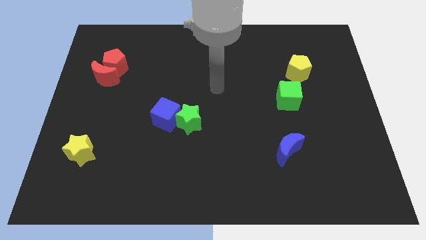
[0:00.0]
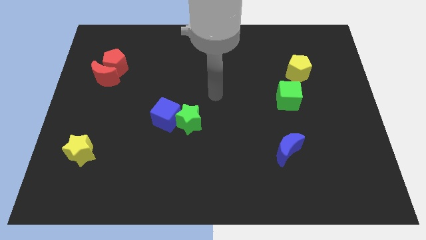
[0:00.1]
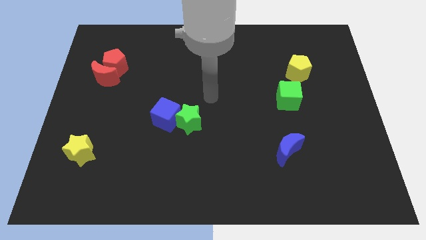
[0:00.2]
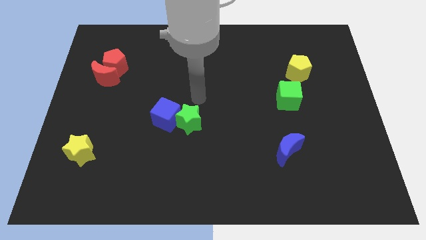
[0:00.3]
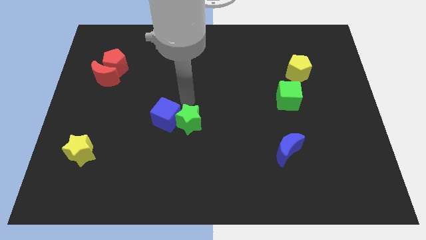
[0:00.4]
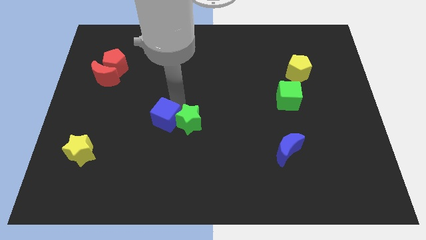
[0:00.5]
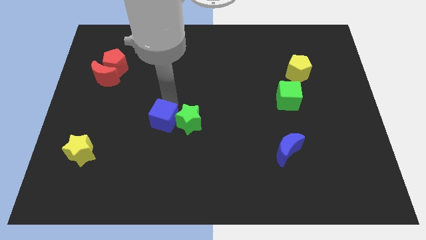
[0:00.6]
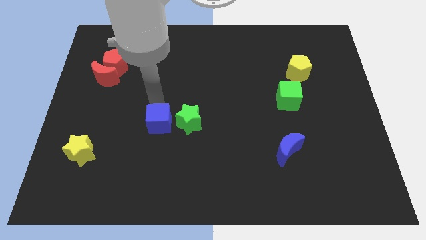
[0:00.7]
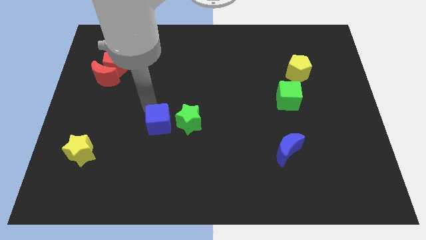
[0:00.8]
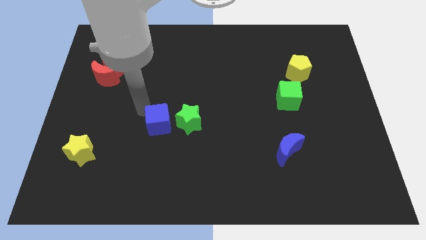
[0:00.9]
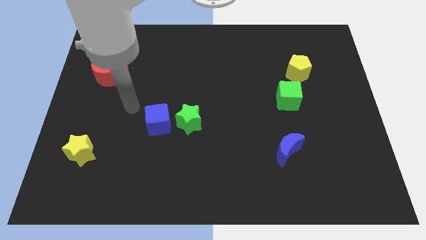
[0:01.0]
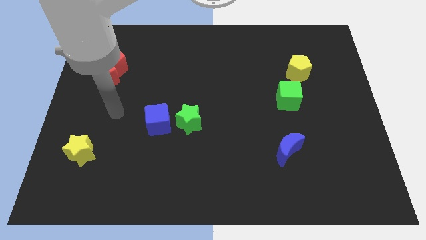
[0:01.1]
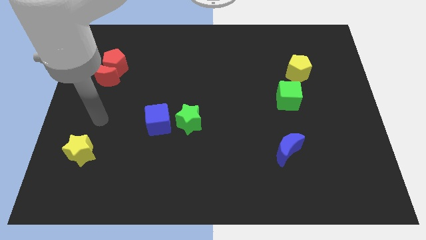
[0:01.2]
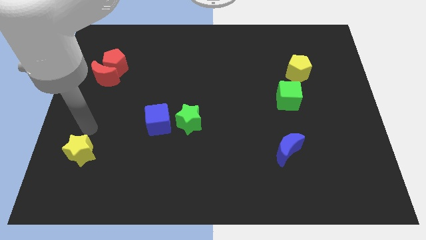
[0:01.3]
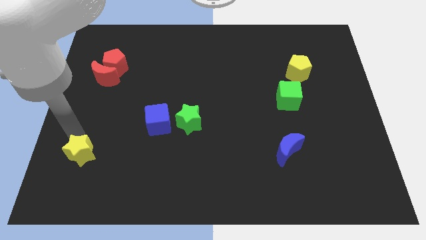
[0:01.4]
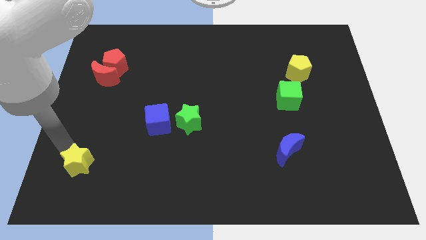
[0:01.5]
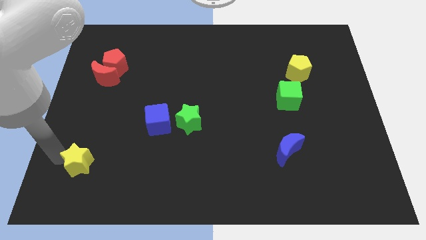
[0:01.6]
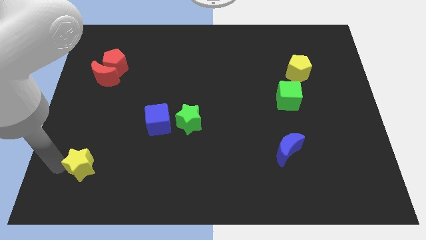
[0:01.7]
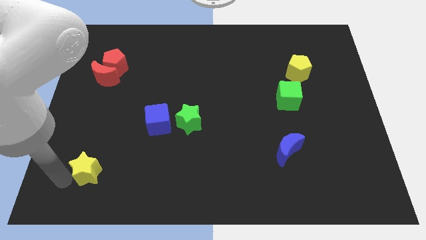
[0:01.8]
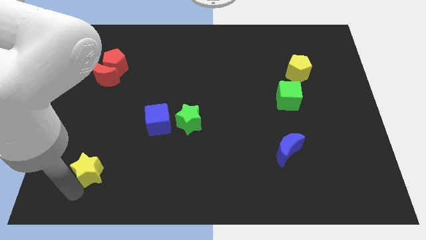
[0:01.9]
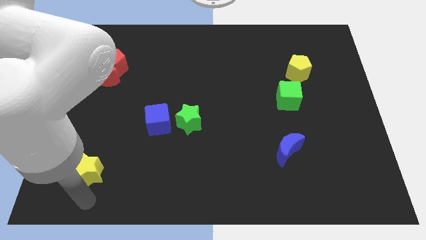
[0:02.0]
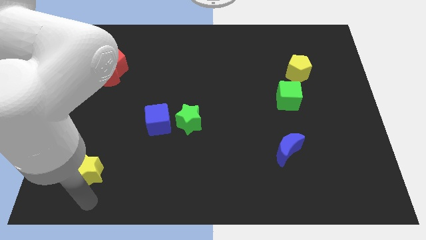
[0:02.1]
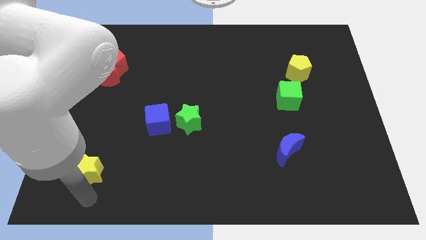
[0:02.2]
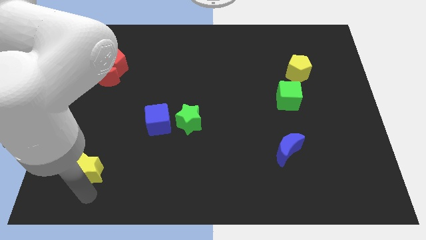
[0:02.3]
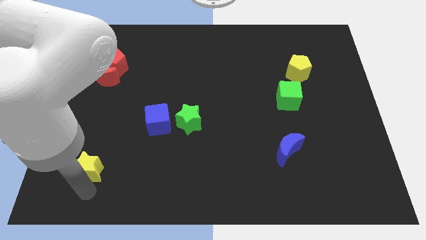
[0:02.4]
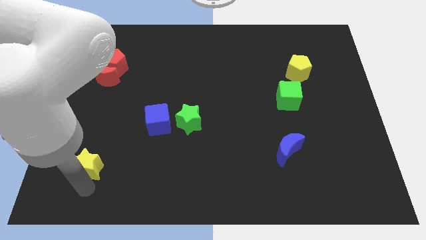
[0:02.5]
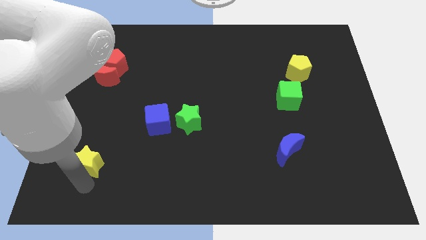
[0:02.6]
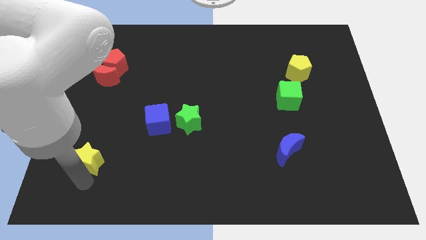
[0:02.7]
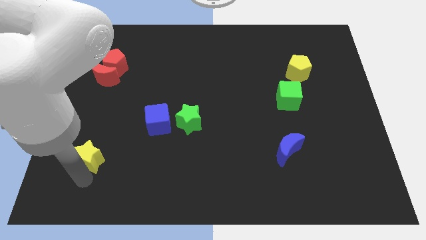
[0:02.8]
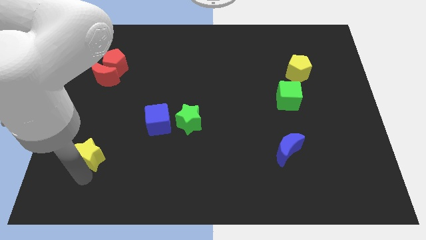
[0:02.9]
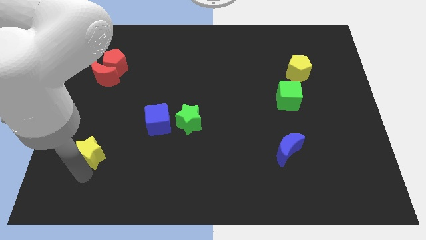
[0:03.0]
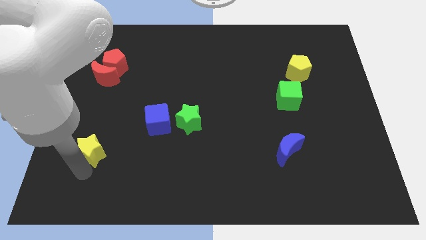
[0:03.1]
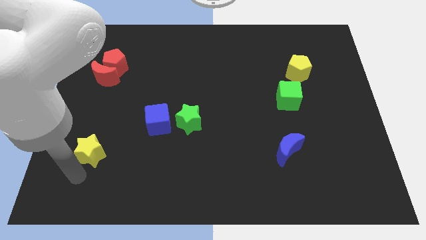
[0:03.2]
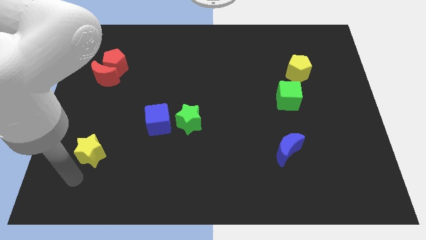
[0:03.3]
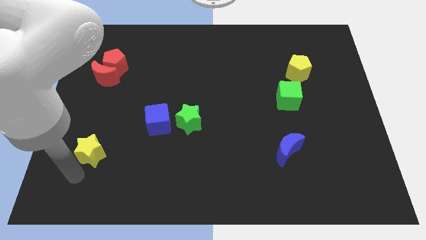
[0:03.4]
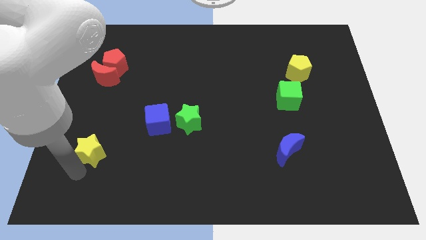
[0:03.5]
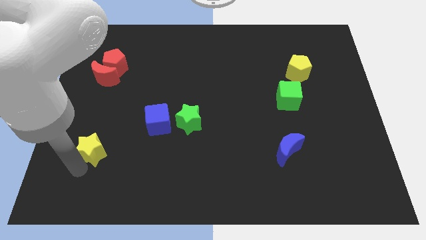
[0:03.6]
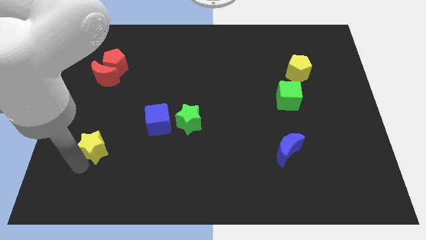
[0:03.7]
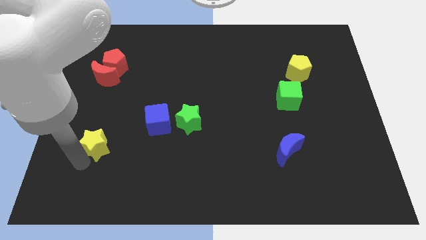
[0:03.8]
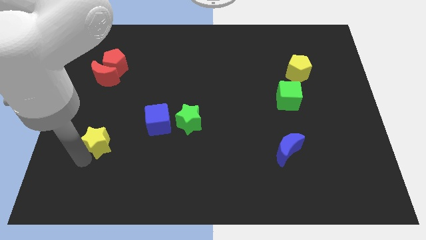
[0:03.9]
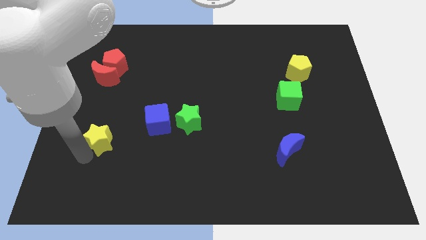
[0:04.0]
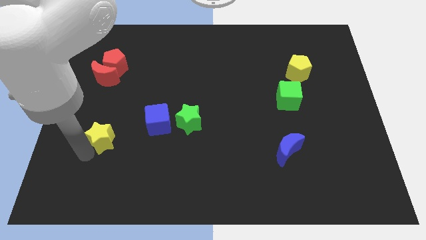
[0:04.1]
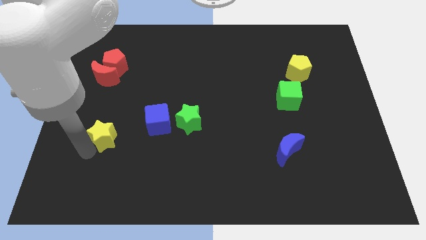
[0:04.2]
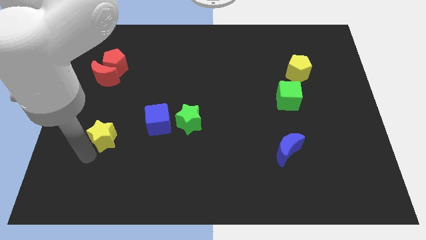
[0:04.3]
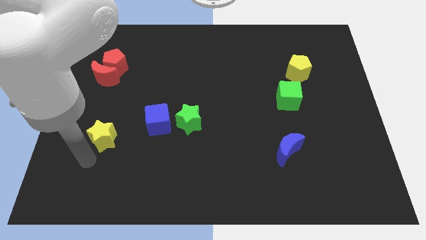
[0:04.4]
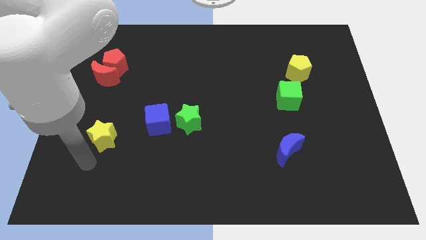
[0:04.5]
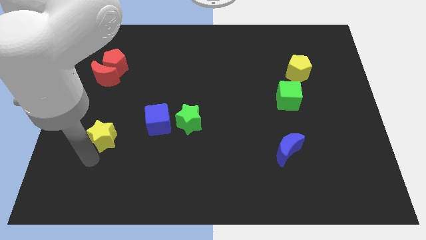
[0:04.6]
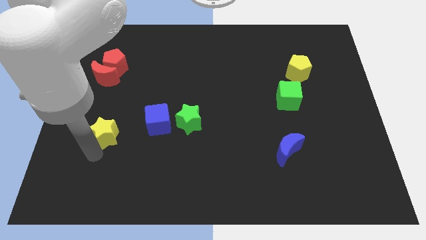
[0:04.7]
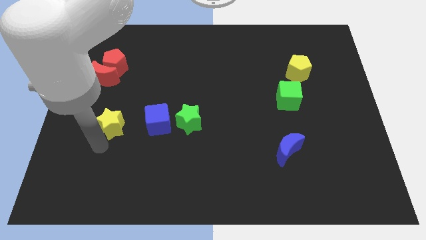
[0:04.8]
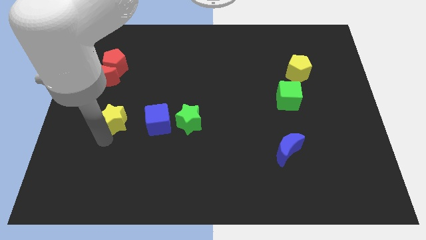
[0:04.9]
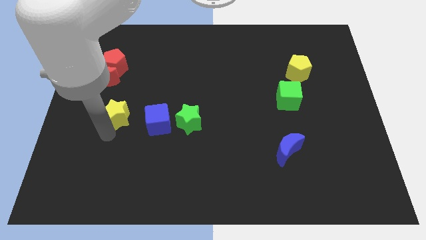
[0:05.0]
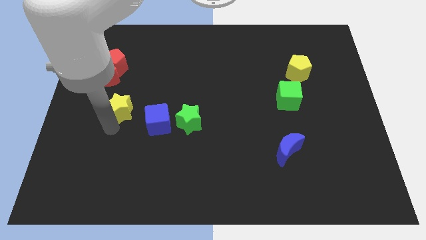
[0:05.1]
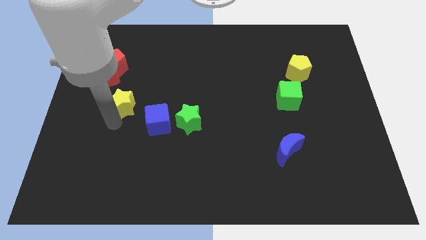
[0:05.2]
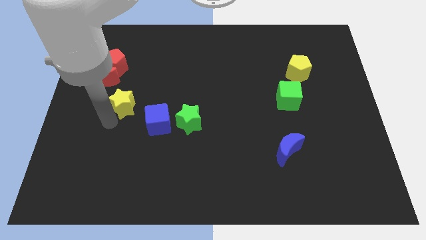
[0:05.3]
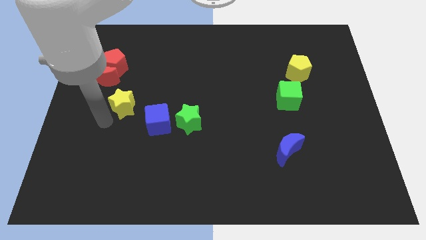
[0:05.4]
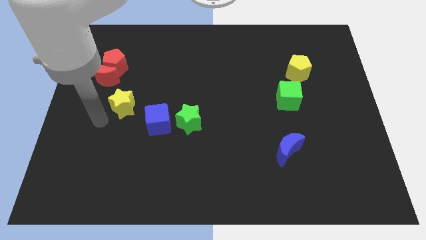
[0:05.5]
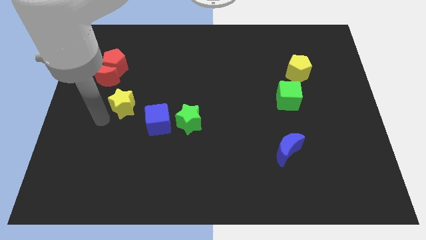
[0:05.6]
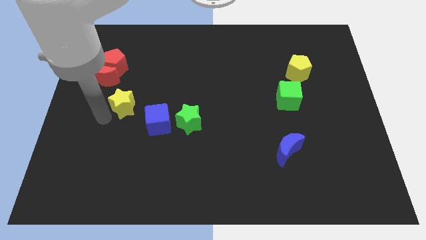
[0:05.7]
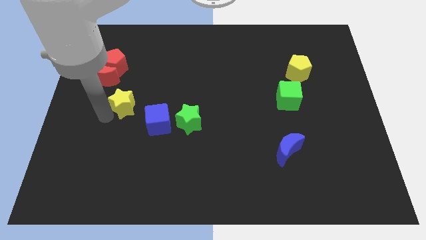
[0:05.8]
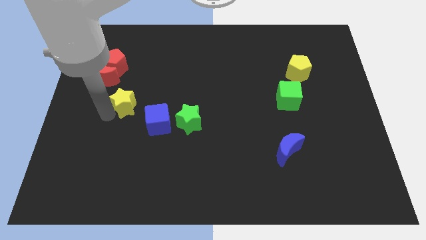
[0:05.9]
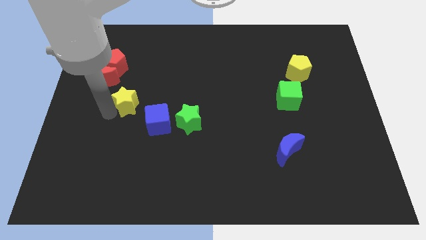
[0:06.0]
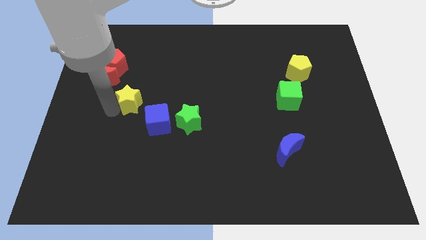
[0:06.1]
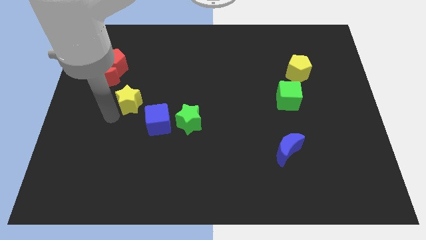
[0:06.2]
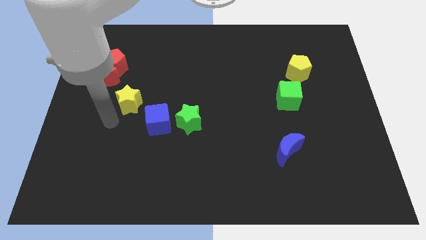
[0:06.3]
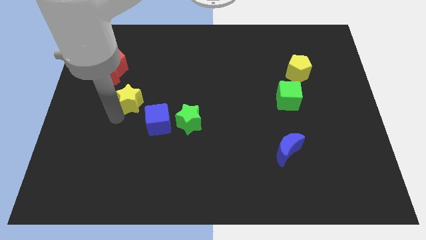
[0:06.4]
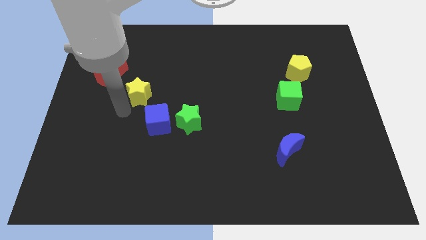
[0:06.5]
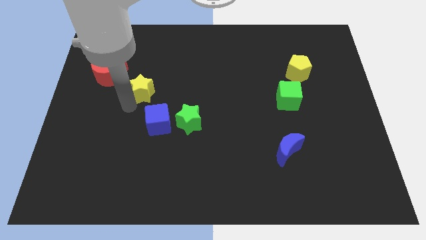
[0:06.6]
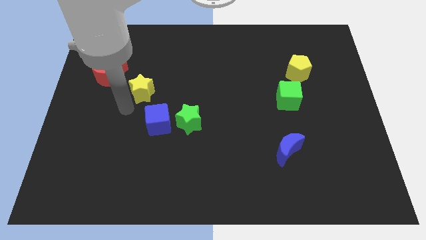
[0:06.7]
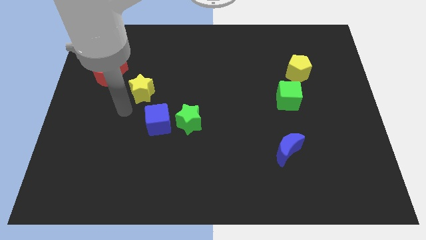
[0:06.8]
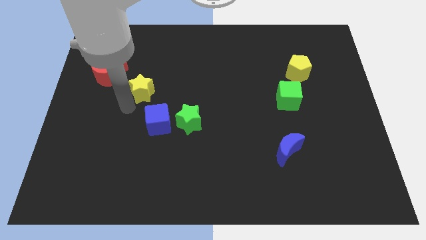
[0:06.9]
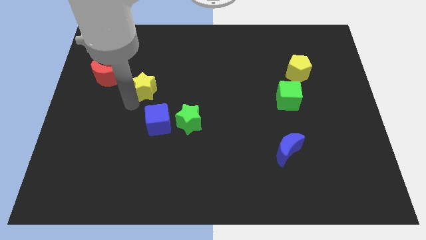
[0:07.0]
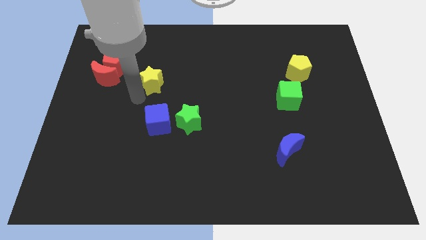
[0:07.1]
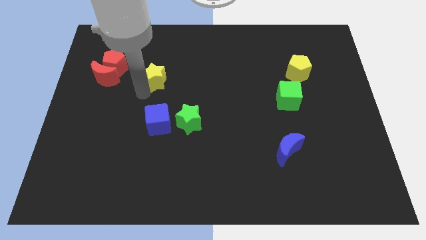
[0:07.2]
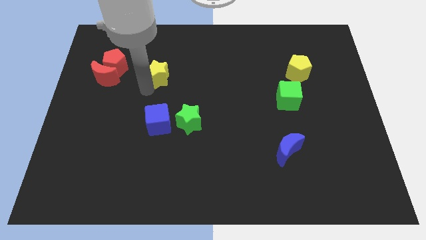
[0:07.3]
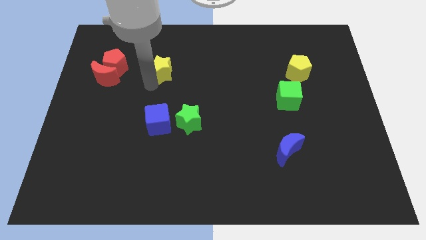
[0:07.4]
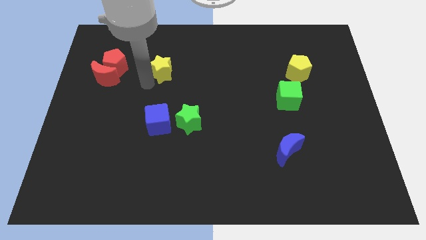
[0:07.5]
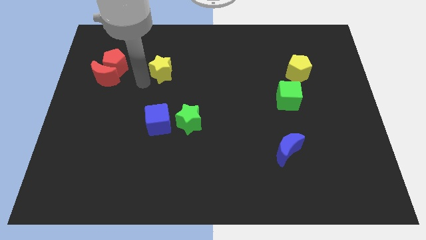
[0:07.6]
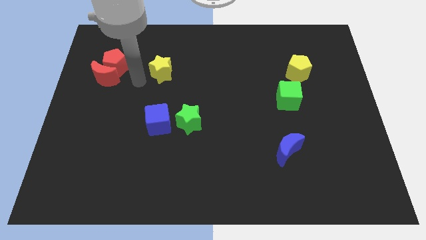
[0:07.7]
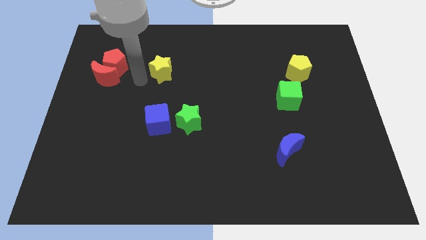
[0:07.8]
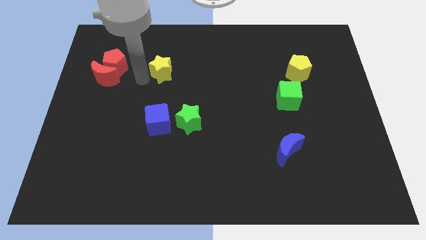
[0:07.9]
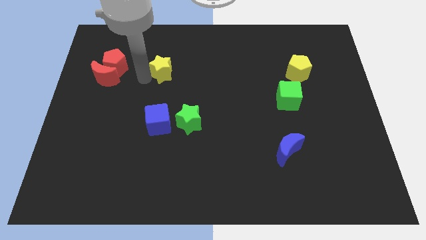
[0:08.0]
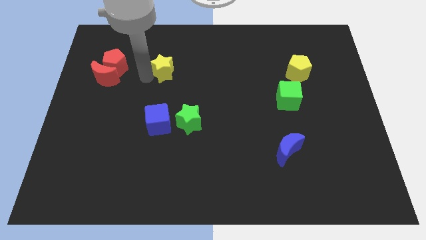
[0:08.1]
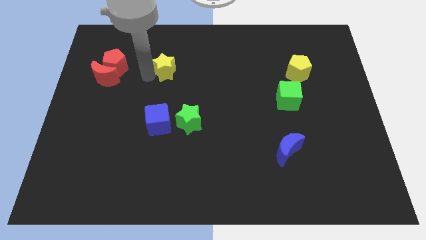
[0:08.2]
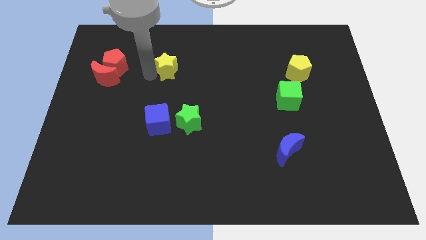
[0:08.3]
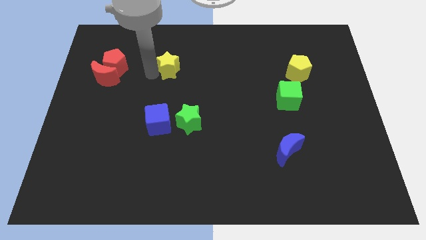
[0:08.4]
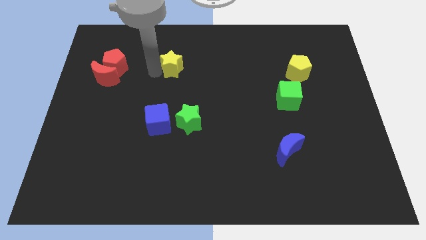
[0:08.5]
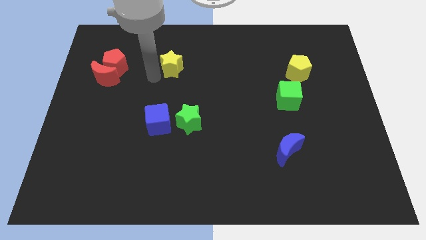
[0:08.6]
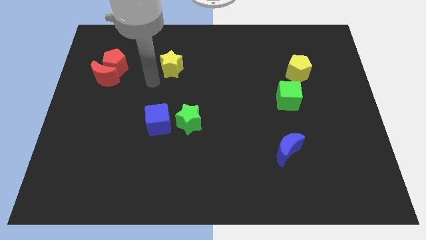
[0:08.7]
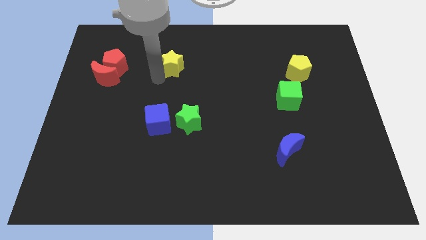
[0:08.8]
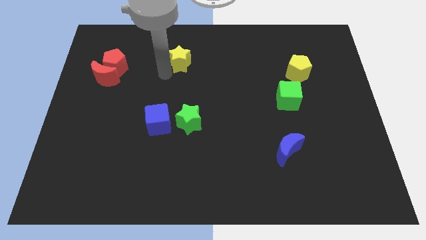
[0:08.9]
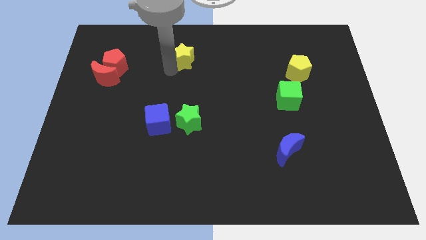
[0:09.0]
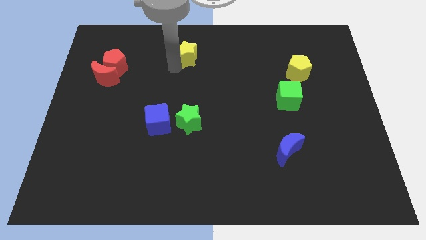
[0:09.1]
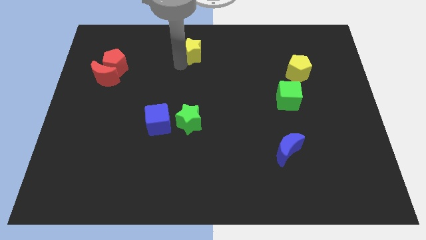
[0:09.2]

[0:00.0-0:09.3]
slide the yellow star to the top
